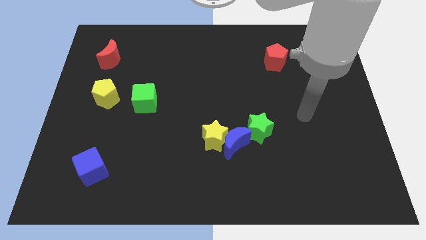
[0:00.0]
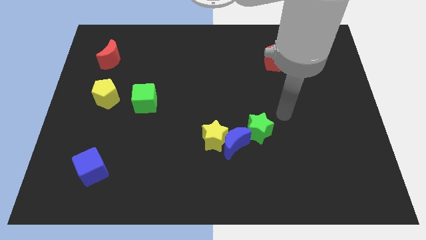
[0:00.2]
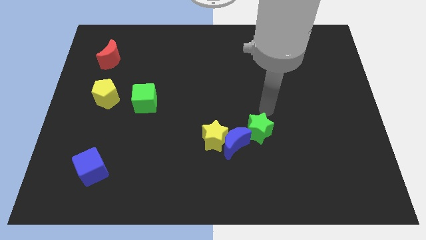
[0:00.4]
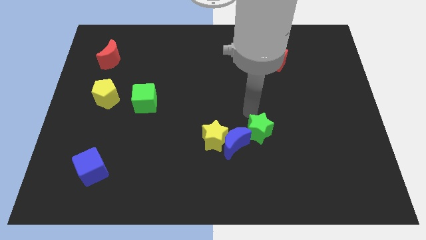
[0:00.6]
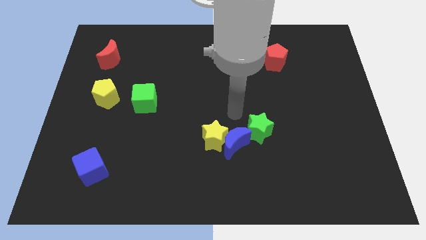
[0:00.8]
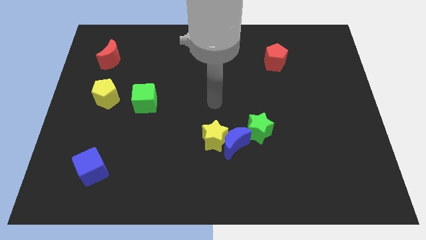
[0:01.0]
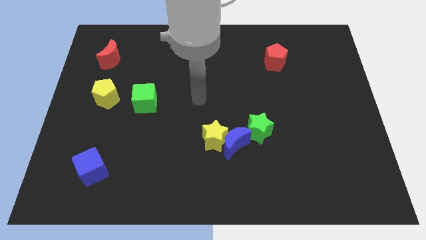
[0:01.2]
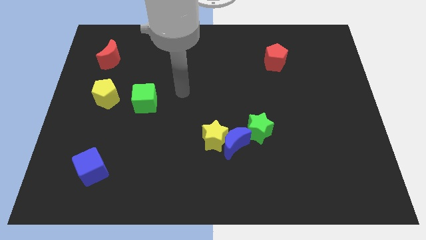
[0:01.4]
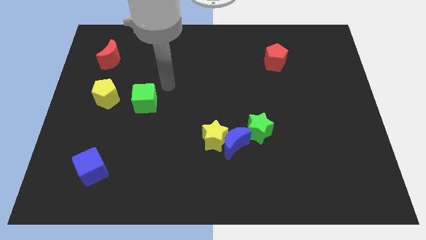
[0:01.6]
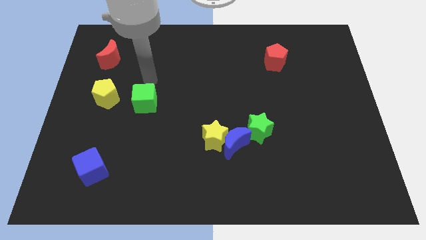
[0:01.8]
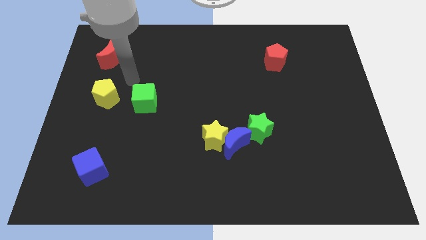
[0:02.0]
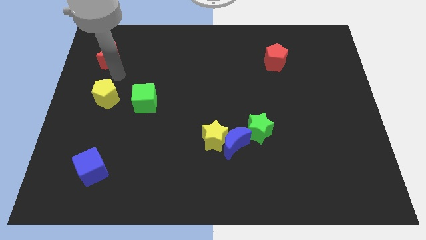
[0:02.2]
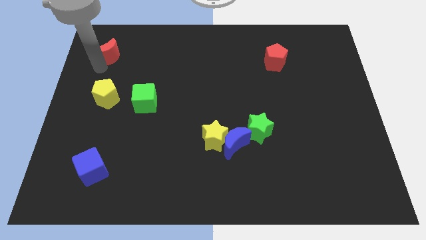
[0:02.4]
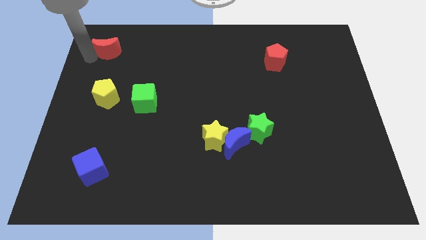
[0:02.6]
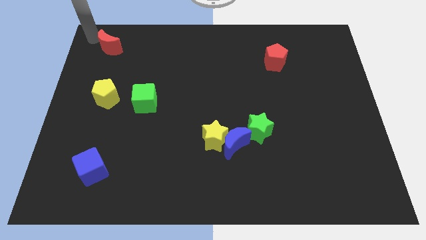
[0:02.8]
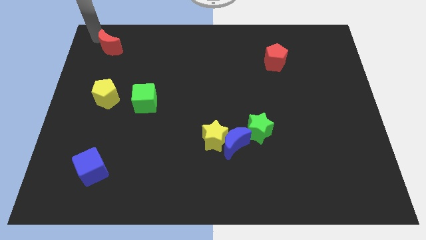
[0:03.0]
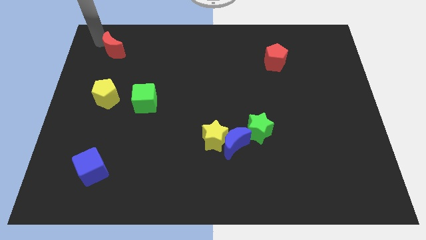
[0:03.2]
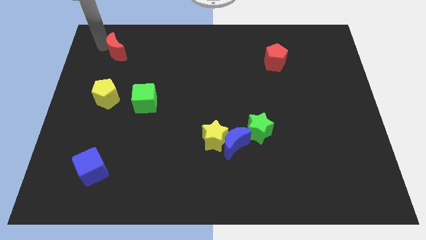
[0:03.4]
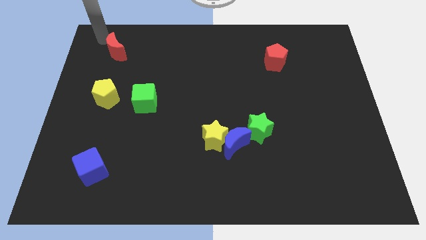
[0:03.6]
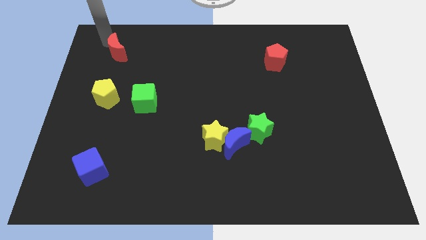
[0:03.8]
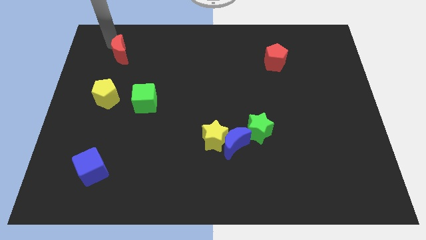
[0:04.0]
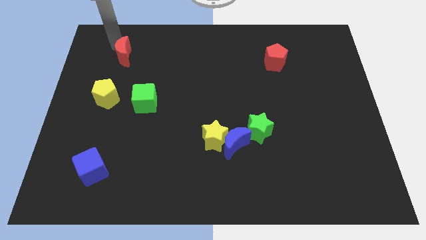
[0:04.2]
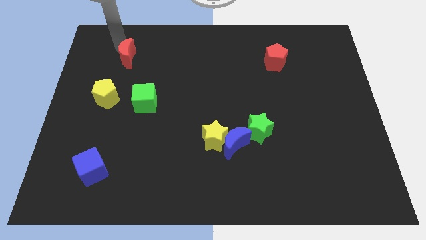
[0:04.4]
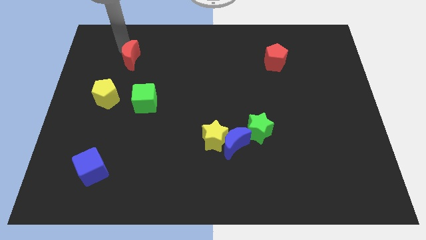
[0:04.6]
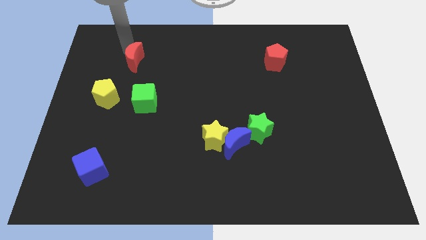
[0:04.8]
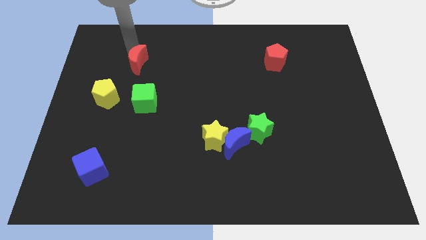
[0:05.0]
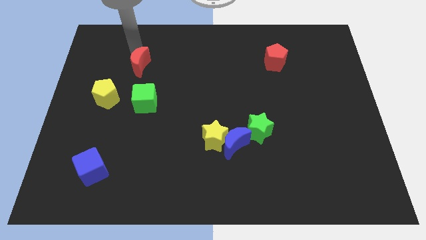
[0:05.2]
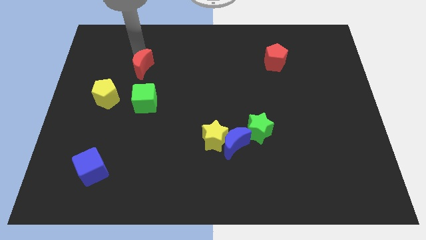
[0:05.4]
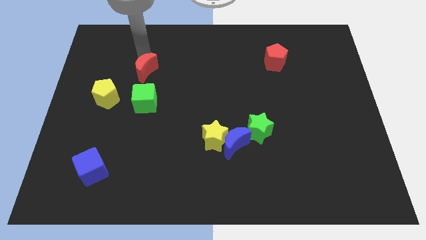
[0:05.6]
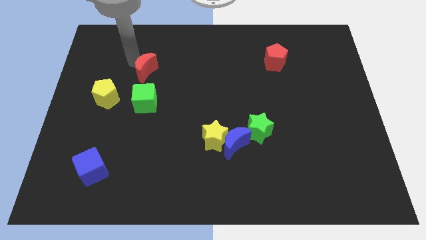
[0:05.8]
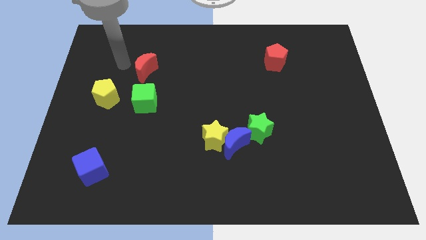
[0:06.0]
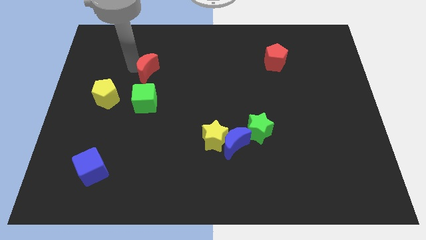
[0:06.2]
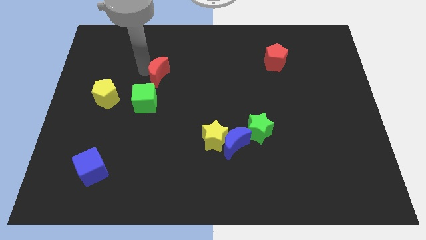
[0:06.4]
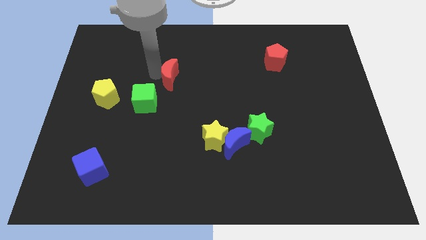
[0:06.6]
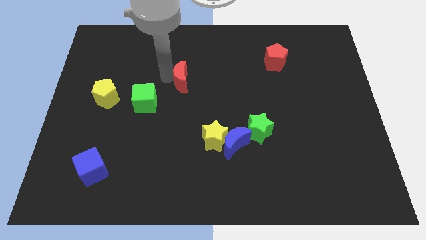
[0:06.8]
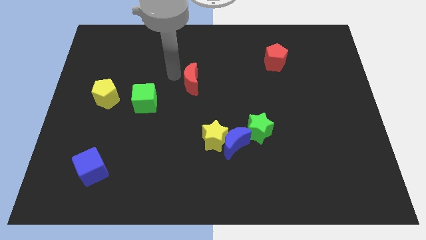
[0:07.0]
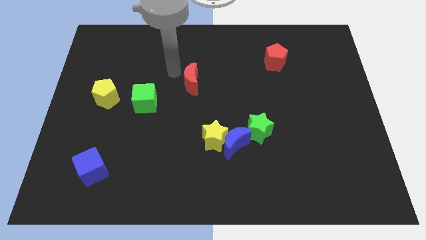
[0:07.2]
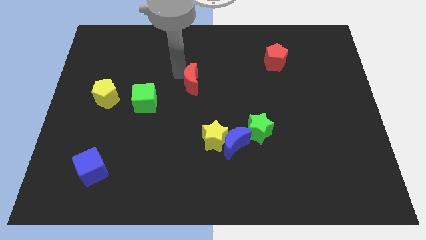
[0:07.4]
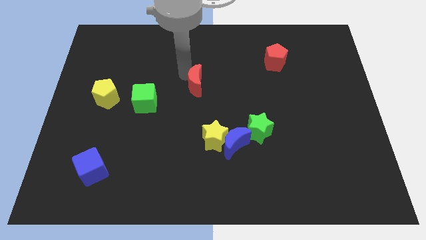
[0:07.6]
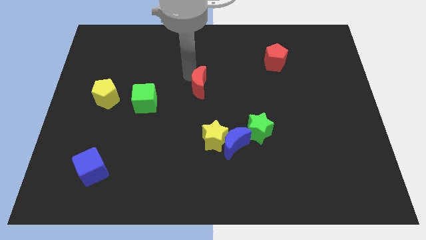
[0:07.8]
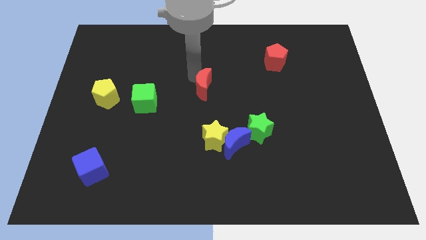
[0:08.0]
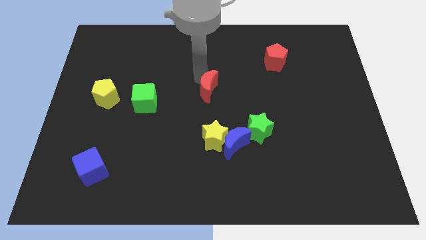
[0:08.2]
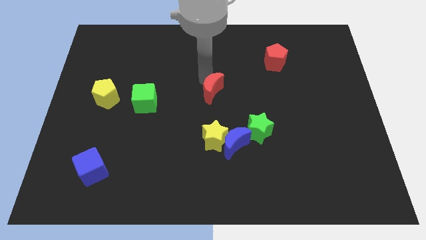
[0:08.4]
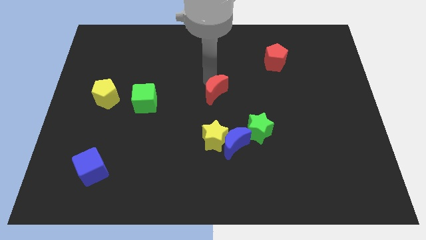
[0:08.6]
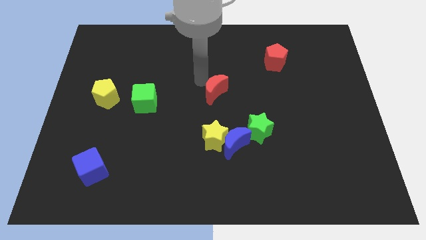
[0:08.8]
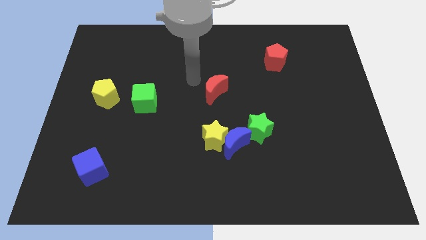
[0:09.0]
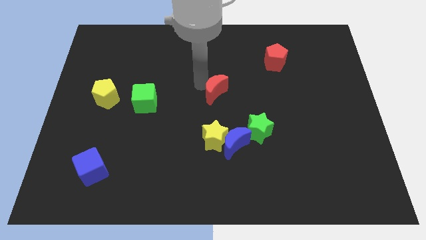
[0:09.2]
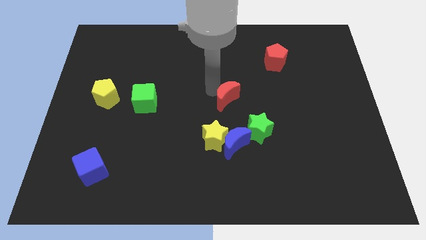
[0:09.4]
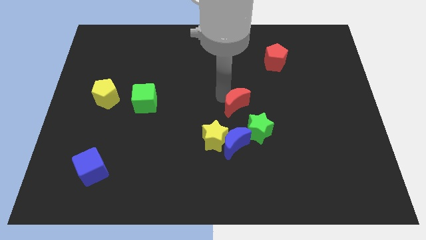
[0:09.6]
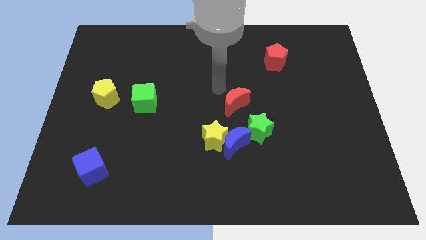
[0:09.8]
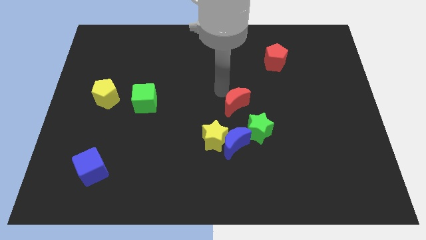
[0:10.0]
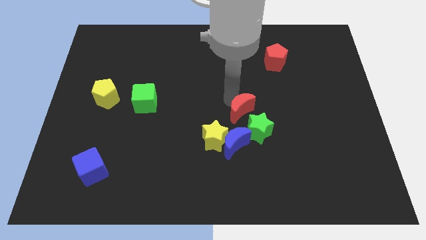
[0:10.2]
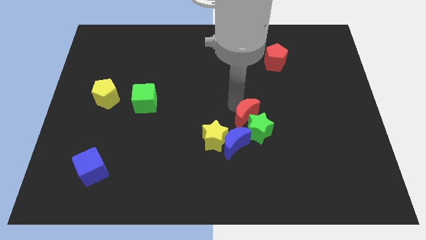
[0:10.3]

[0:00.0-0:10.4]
put the red moon to the top right side of the blue moon
